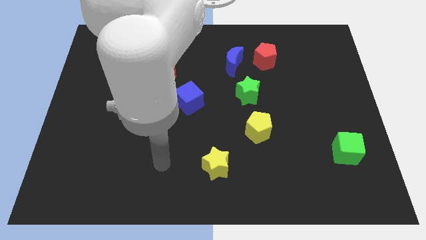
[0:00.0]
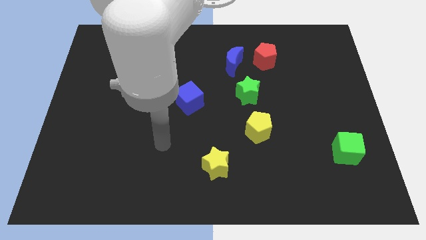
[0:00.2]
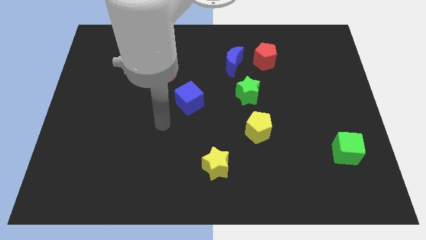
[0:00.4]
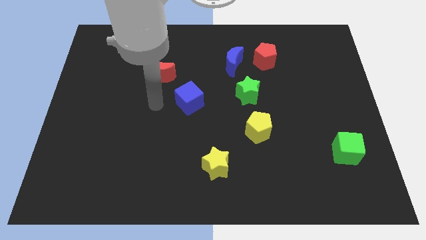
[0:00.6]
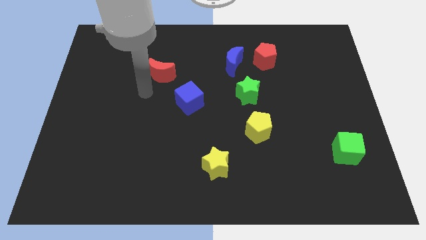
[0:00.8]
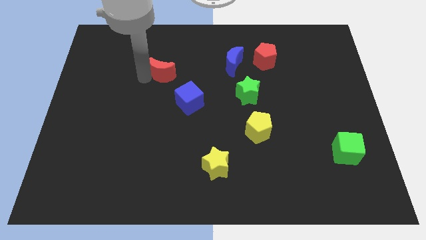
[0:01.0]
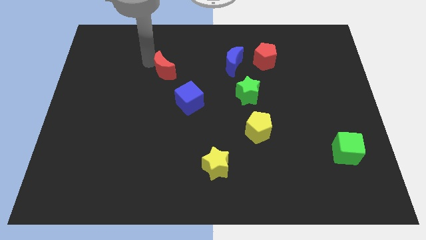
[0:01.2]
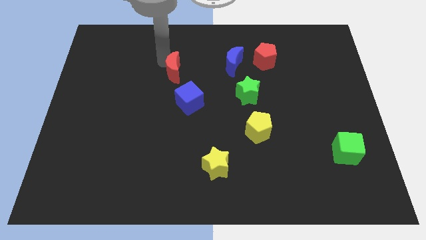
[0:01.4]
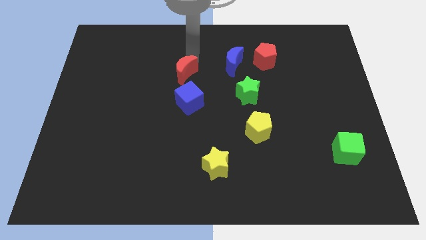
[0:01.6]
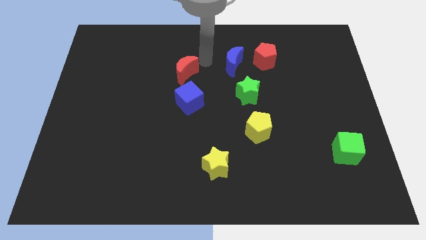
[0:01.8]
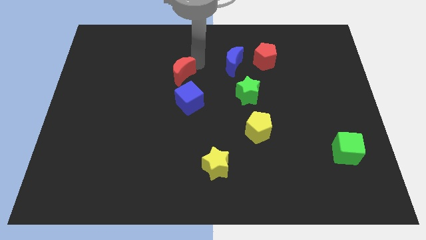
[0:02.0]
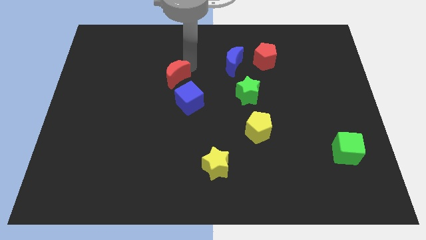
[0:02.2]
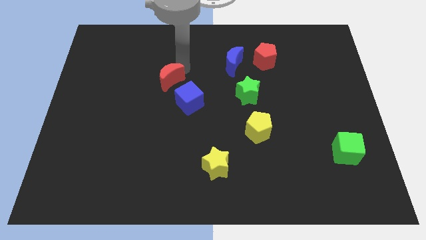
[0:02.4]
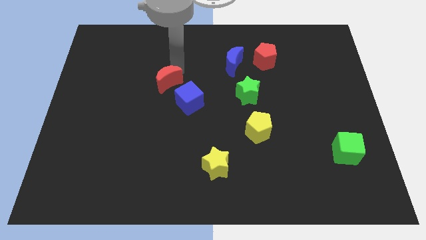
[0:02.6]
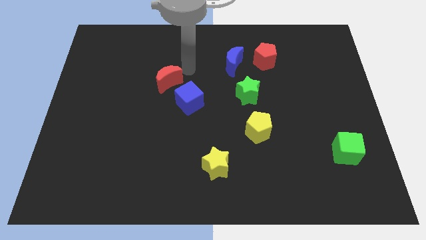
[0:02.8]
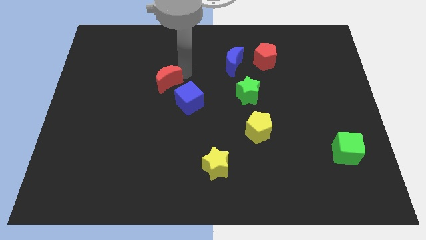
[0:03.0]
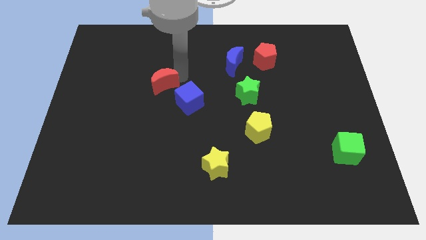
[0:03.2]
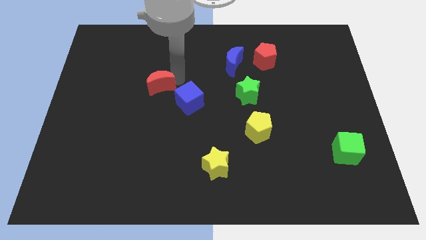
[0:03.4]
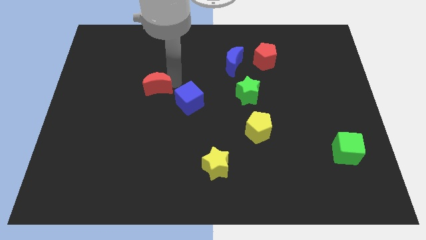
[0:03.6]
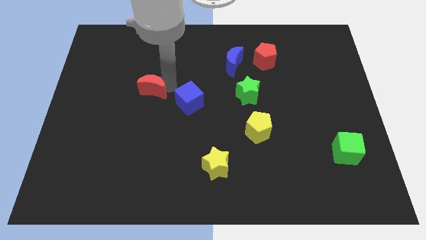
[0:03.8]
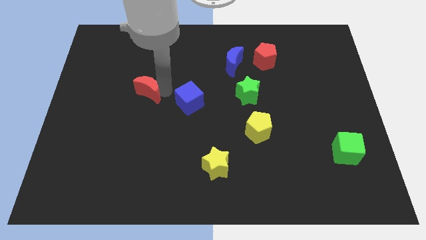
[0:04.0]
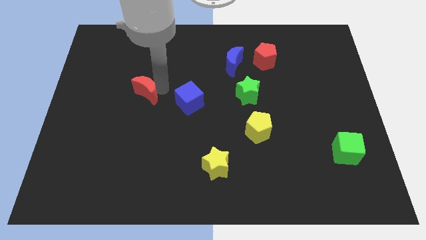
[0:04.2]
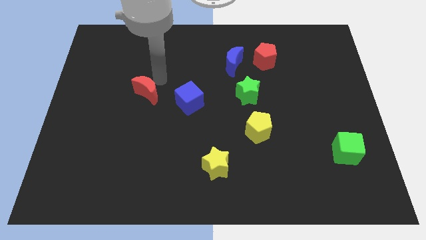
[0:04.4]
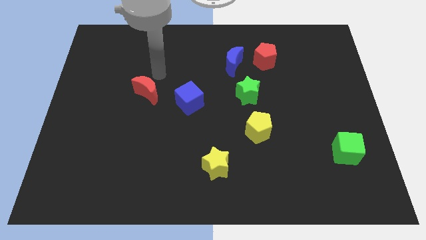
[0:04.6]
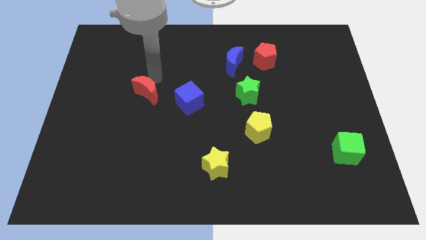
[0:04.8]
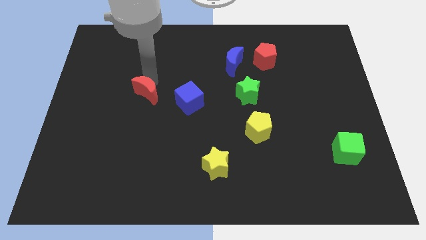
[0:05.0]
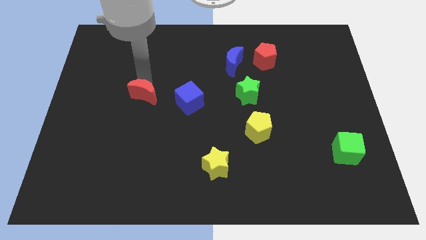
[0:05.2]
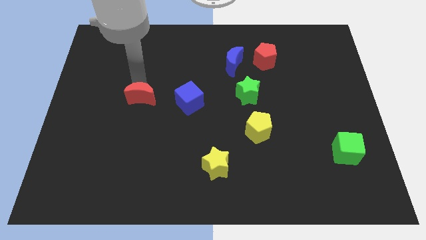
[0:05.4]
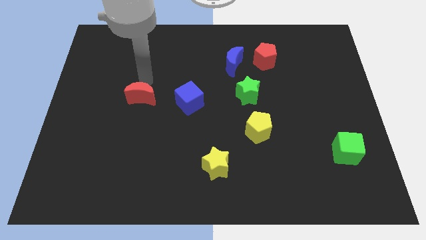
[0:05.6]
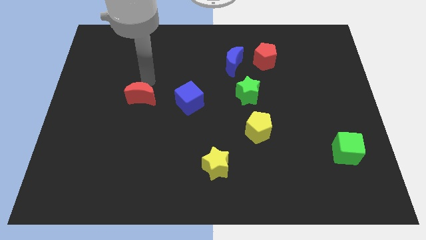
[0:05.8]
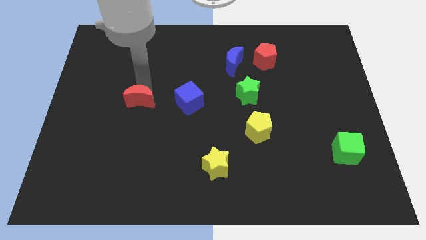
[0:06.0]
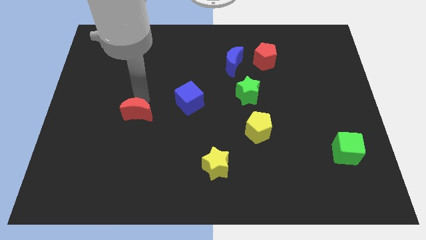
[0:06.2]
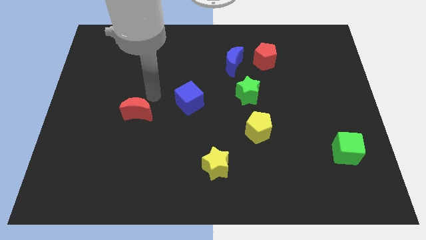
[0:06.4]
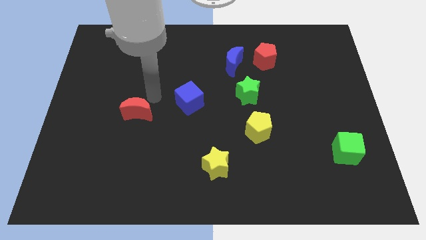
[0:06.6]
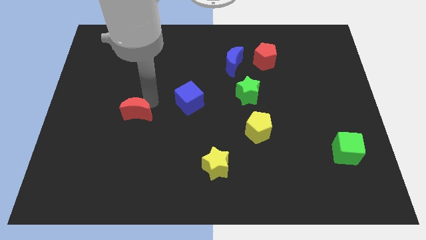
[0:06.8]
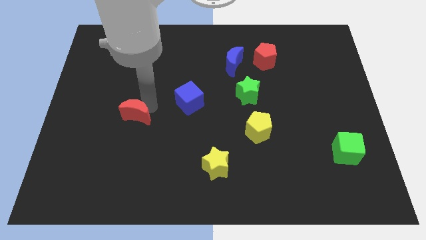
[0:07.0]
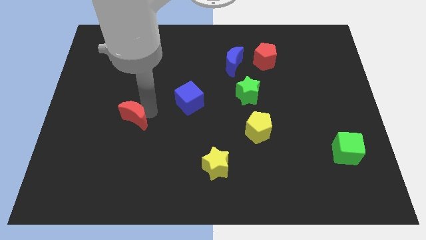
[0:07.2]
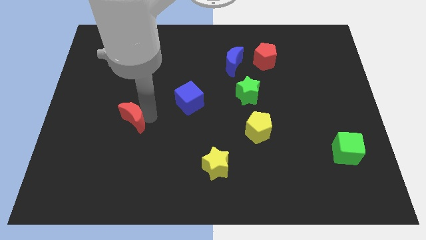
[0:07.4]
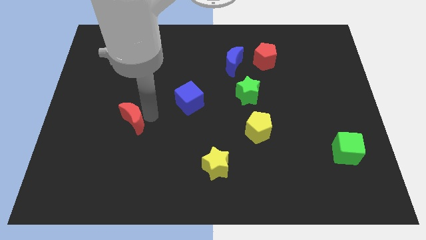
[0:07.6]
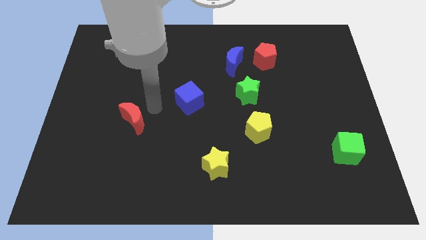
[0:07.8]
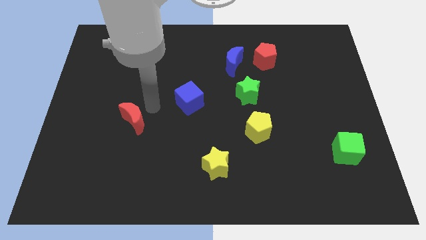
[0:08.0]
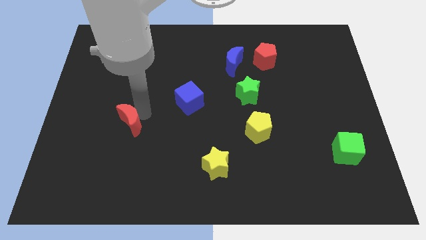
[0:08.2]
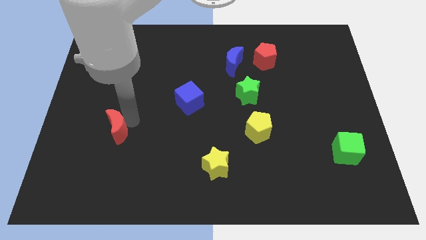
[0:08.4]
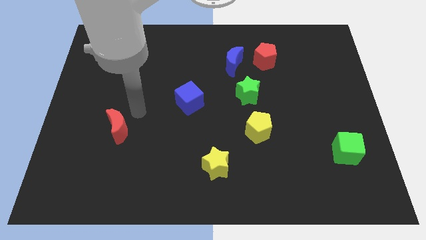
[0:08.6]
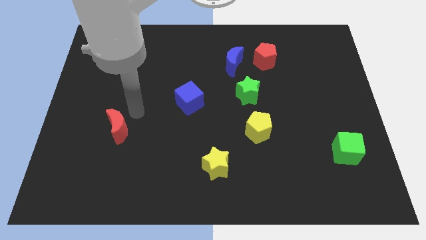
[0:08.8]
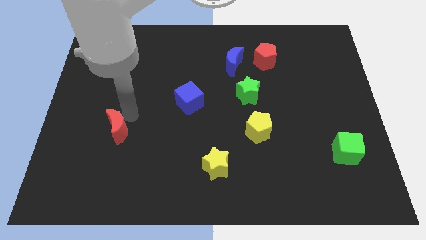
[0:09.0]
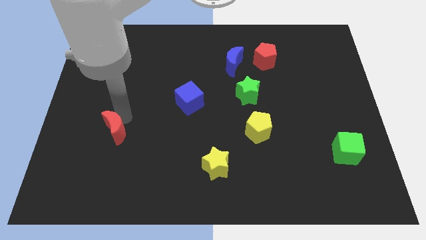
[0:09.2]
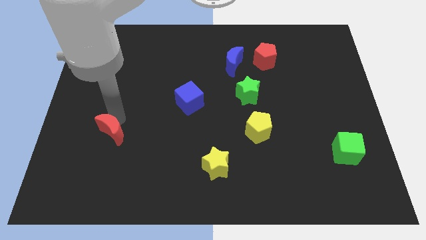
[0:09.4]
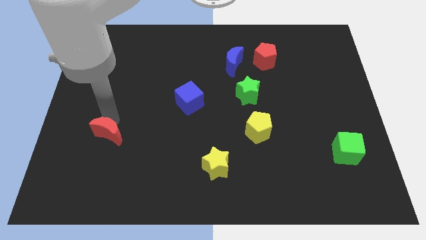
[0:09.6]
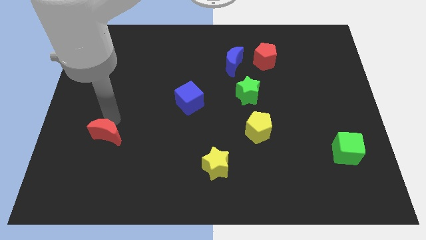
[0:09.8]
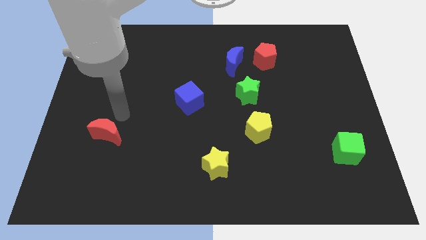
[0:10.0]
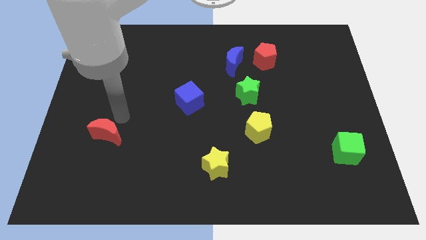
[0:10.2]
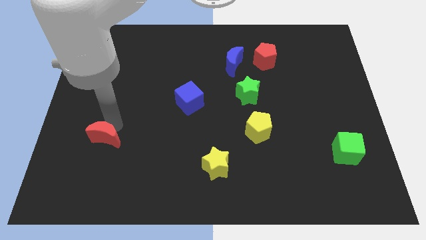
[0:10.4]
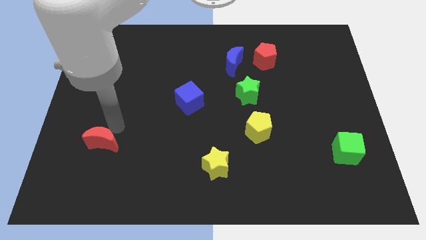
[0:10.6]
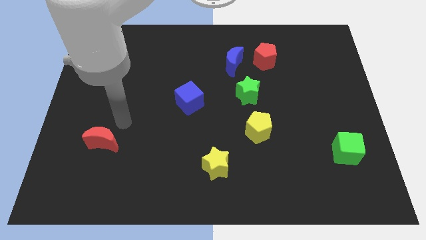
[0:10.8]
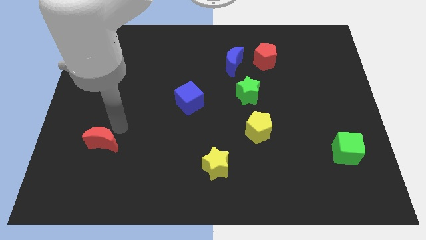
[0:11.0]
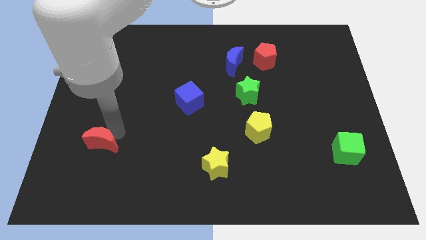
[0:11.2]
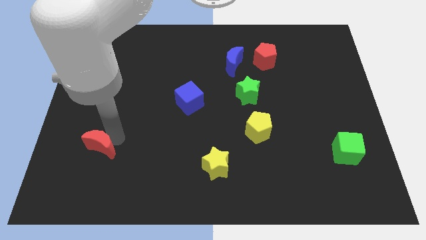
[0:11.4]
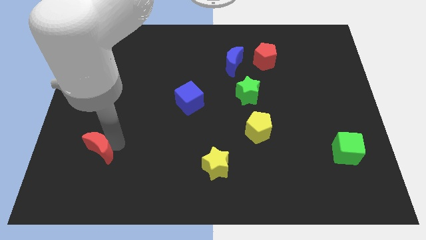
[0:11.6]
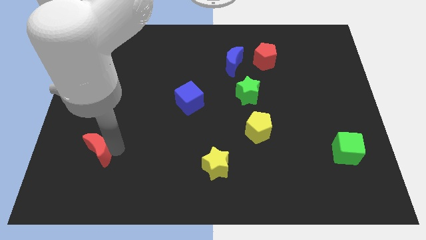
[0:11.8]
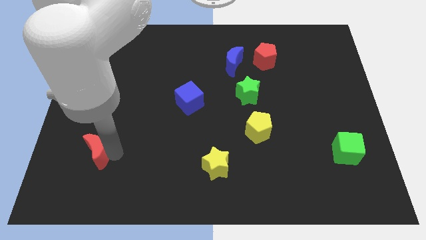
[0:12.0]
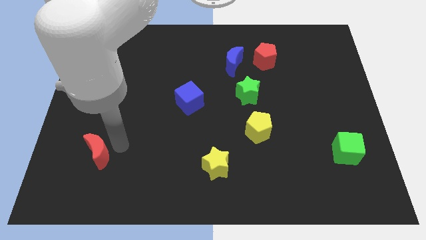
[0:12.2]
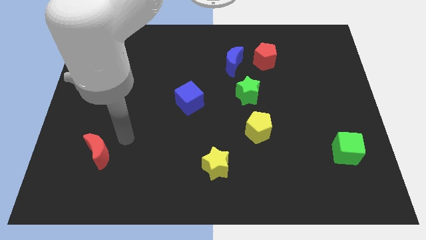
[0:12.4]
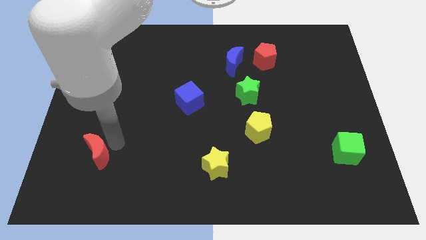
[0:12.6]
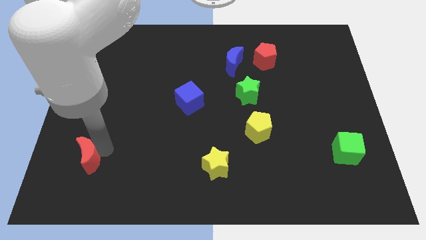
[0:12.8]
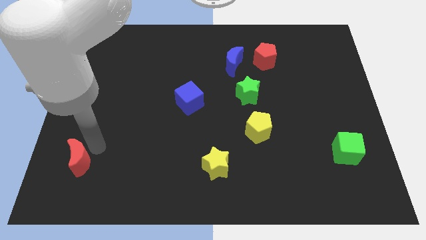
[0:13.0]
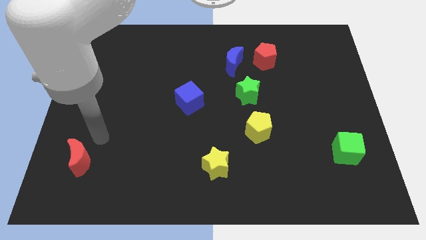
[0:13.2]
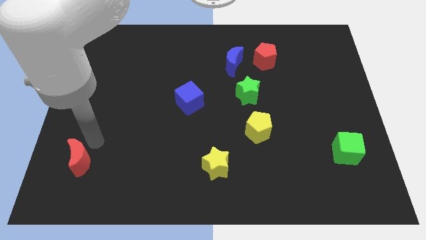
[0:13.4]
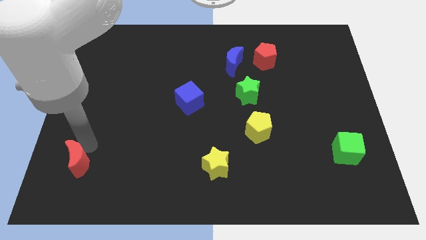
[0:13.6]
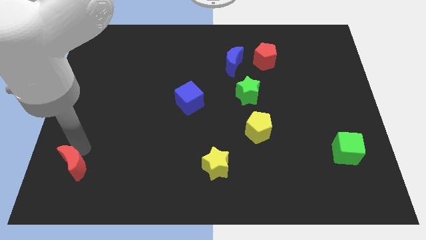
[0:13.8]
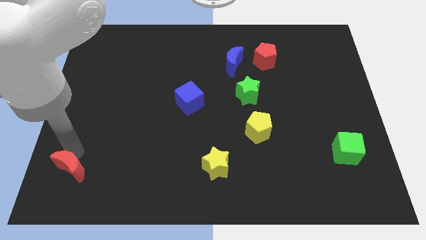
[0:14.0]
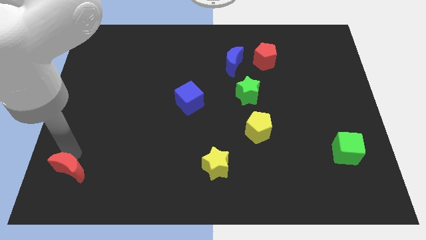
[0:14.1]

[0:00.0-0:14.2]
put the red moon to the lower left corner
